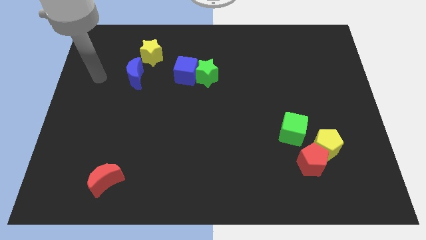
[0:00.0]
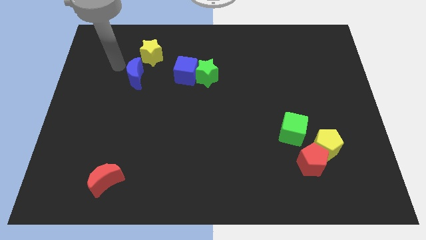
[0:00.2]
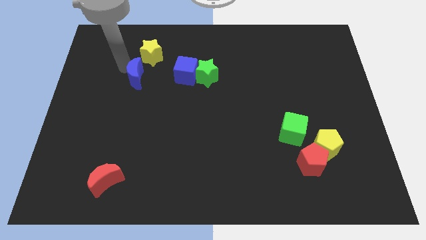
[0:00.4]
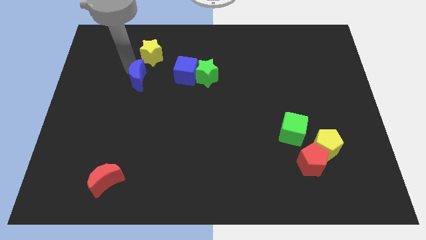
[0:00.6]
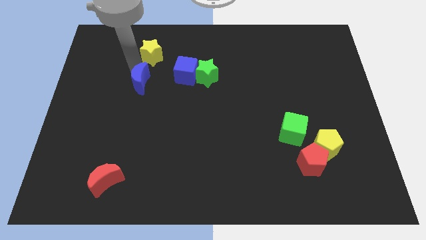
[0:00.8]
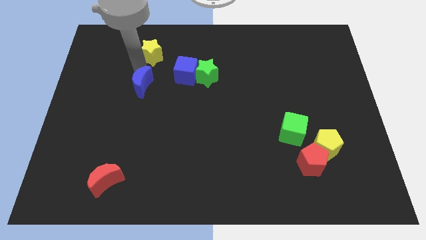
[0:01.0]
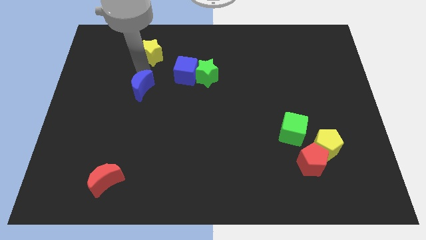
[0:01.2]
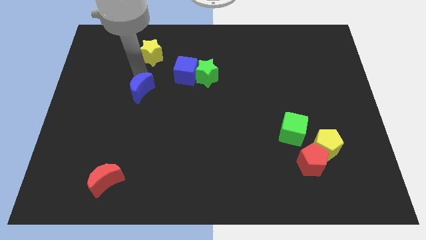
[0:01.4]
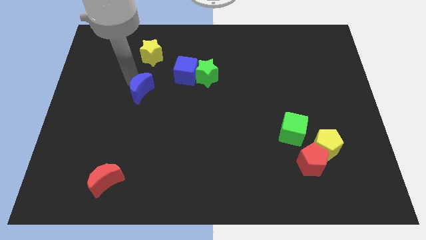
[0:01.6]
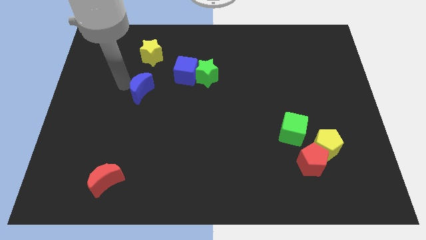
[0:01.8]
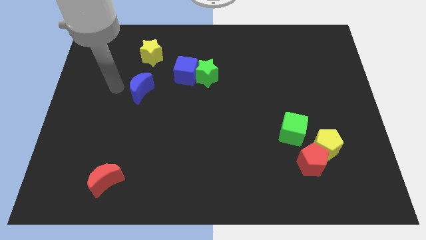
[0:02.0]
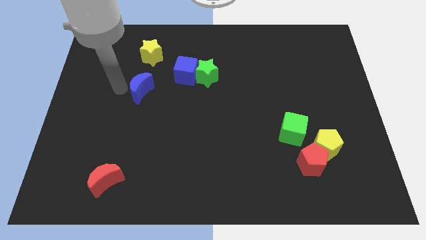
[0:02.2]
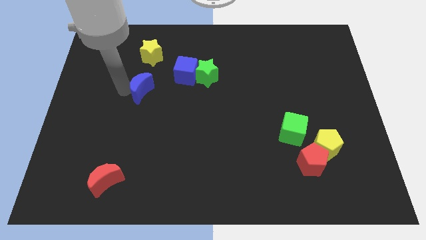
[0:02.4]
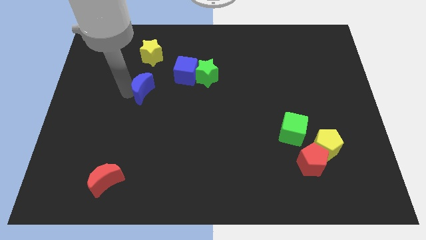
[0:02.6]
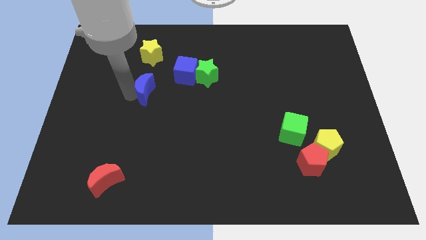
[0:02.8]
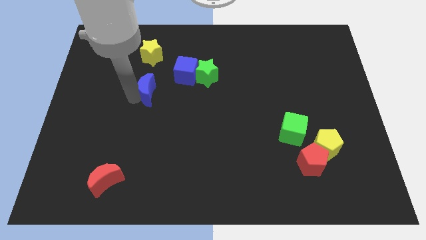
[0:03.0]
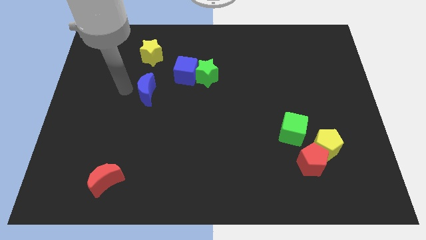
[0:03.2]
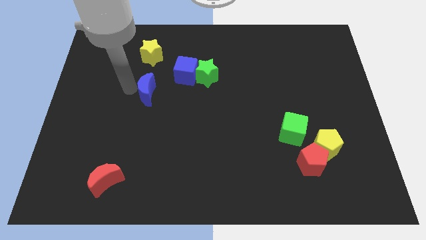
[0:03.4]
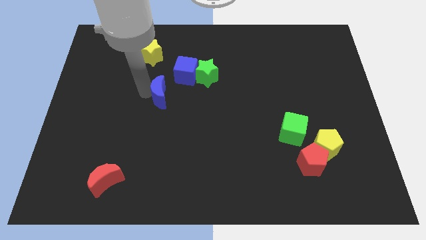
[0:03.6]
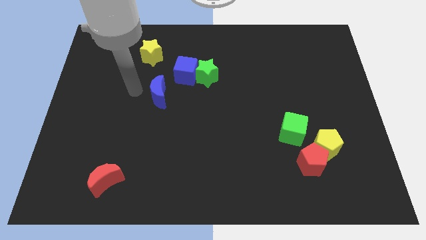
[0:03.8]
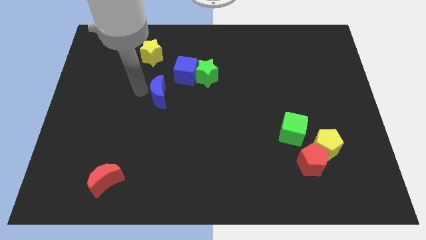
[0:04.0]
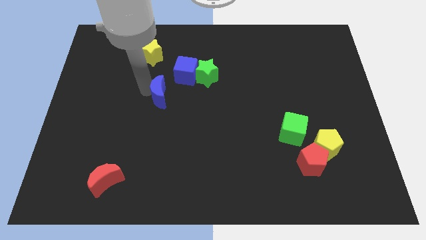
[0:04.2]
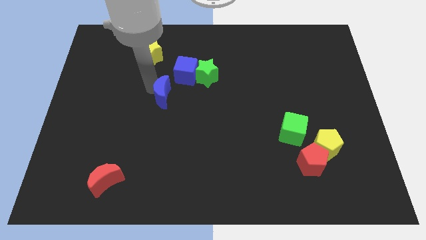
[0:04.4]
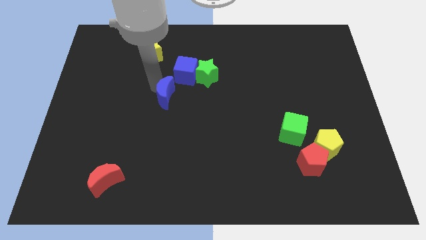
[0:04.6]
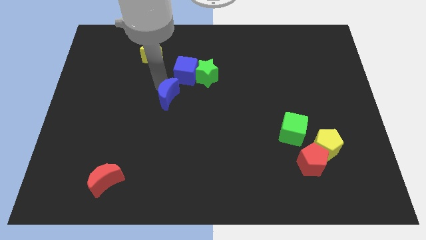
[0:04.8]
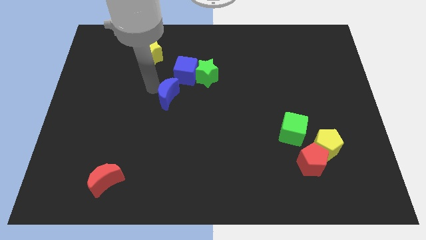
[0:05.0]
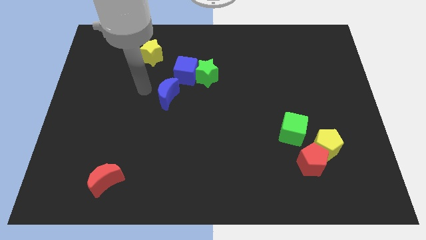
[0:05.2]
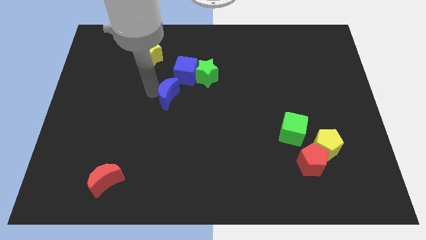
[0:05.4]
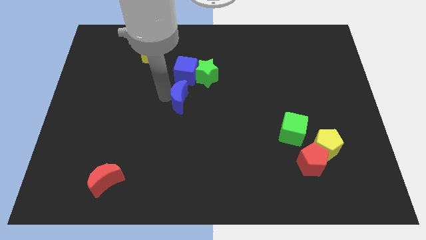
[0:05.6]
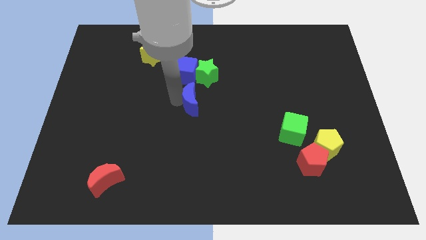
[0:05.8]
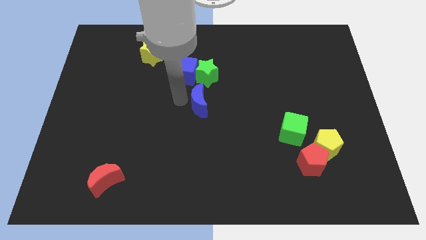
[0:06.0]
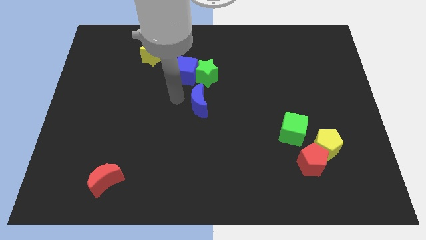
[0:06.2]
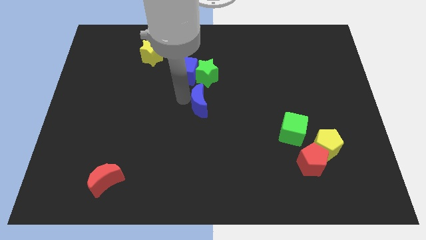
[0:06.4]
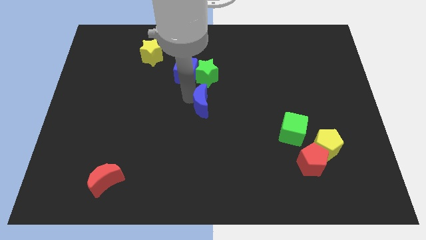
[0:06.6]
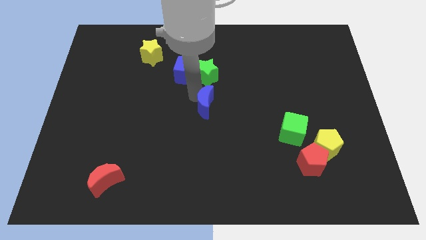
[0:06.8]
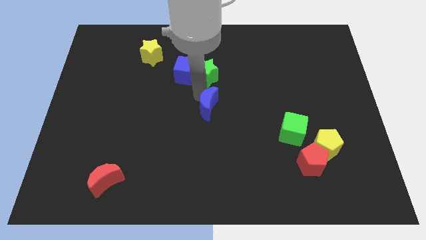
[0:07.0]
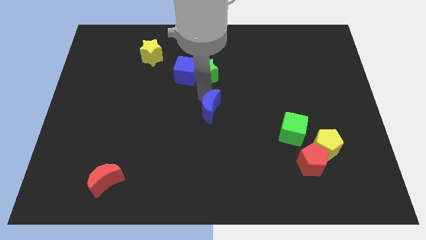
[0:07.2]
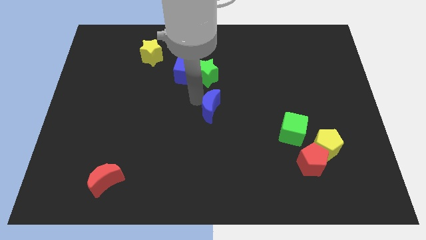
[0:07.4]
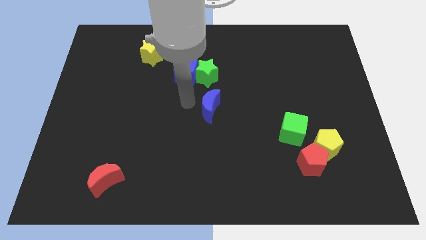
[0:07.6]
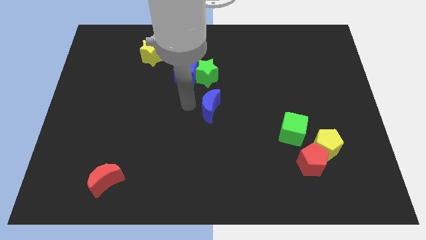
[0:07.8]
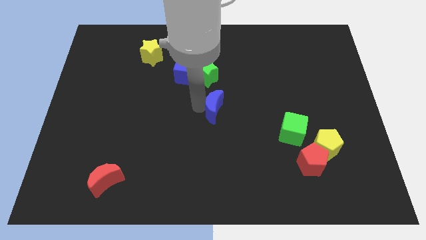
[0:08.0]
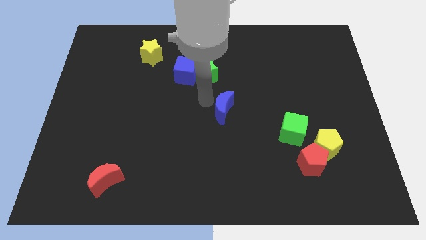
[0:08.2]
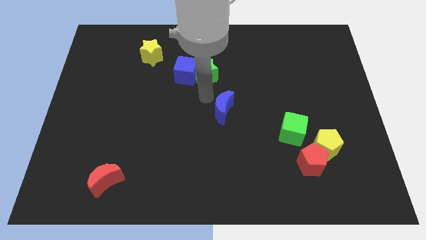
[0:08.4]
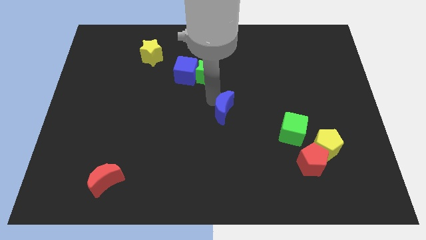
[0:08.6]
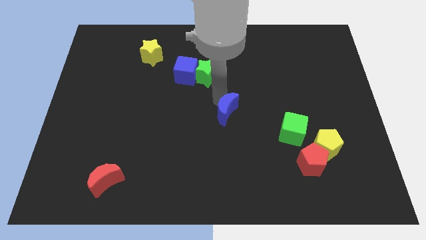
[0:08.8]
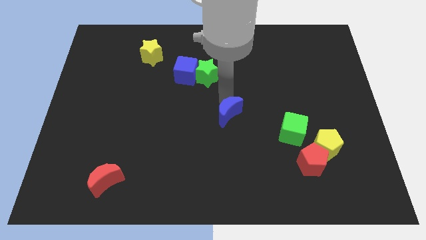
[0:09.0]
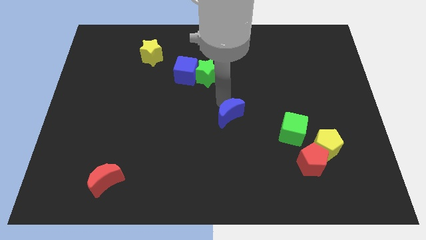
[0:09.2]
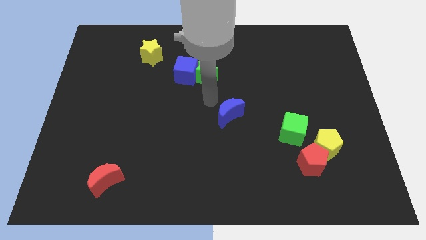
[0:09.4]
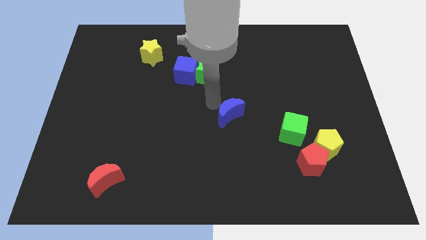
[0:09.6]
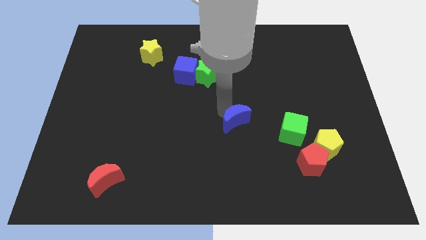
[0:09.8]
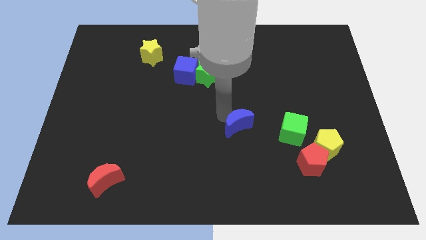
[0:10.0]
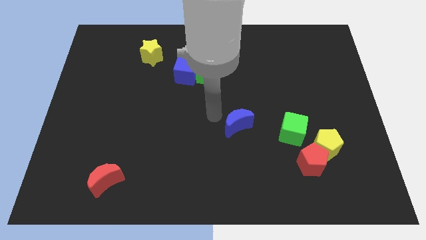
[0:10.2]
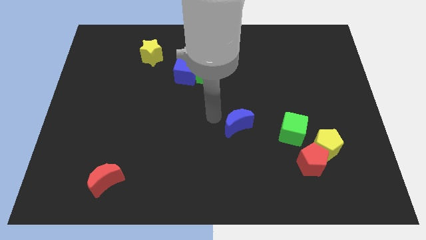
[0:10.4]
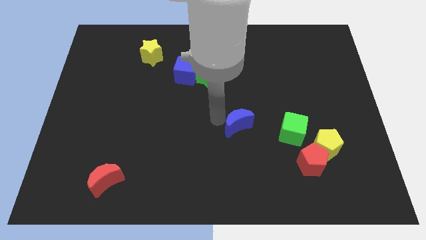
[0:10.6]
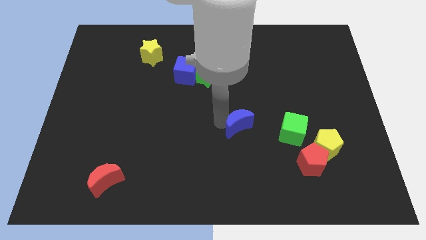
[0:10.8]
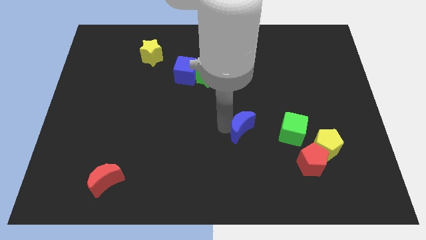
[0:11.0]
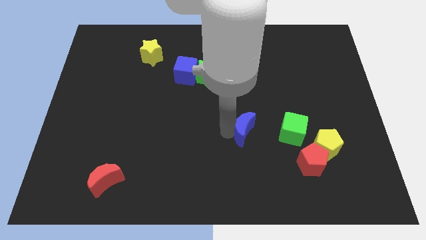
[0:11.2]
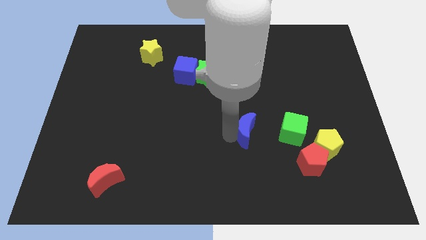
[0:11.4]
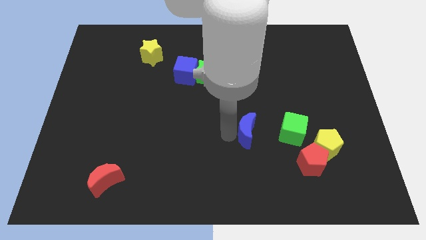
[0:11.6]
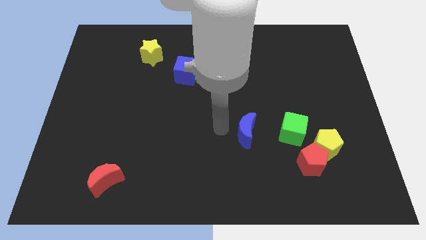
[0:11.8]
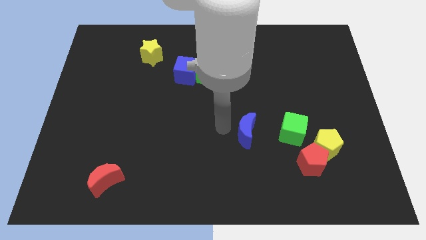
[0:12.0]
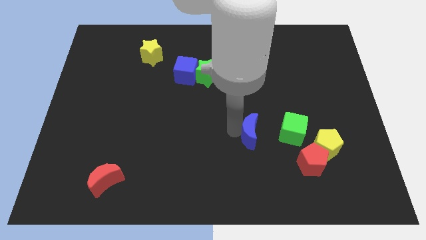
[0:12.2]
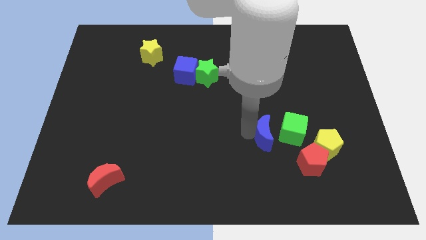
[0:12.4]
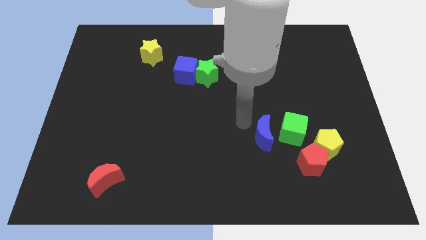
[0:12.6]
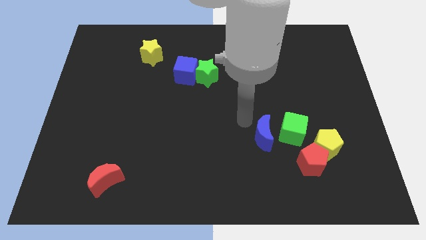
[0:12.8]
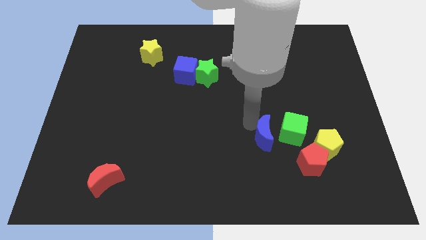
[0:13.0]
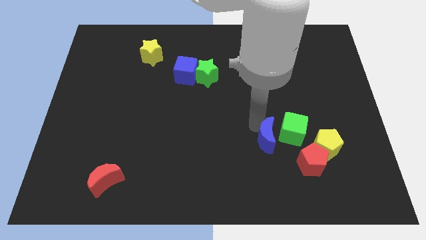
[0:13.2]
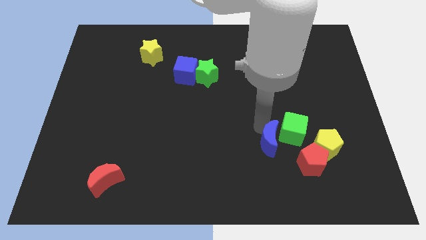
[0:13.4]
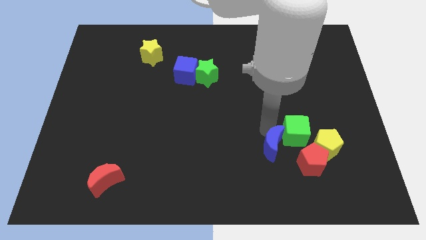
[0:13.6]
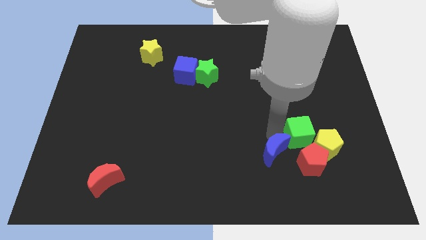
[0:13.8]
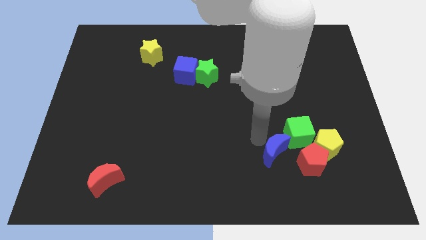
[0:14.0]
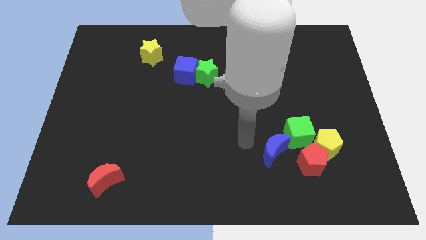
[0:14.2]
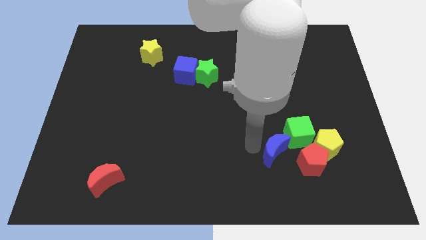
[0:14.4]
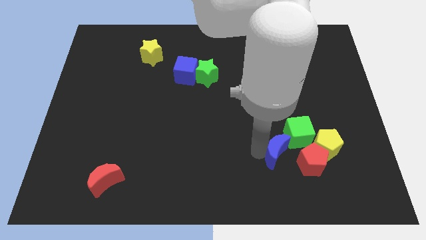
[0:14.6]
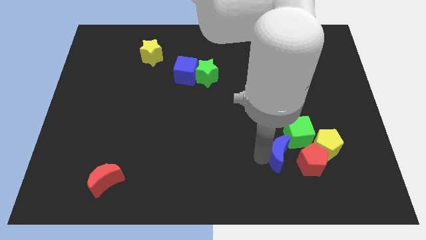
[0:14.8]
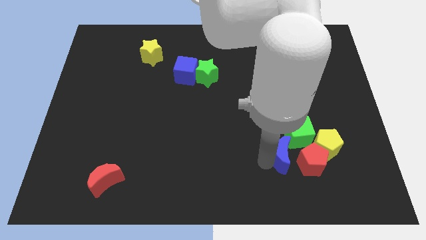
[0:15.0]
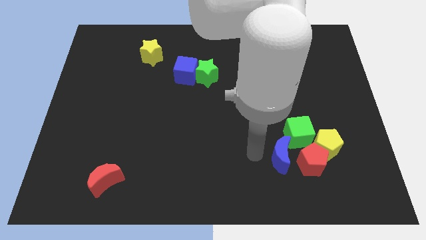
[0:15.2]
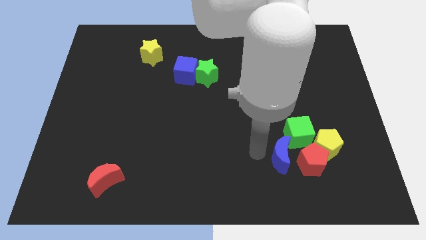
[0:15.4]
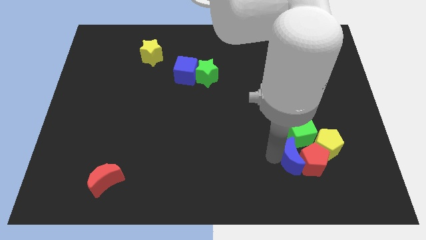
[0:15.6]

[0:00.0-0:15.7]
slide the blue moon next to the red pentagon
